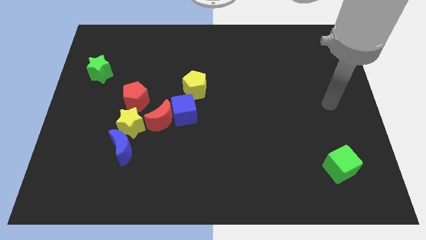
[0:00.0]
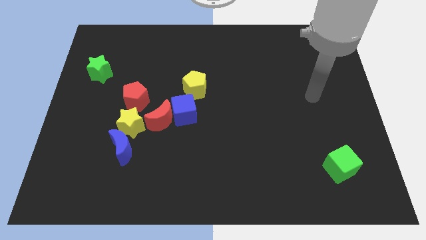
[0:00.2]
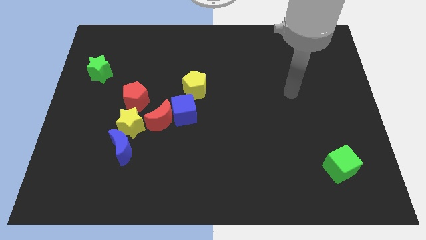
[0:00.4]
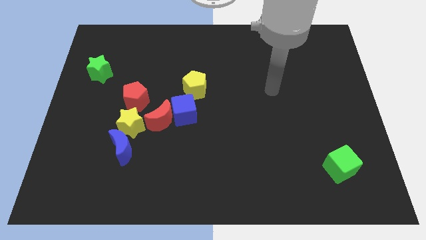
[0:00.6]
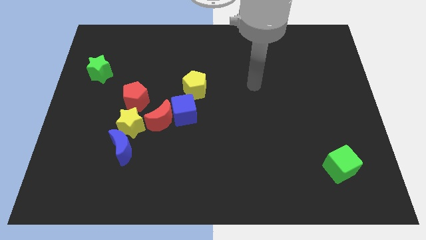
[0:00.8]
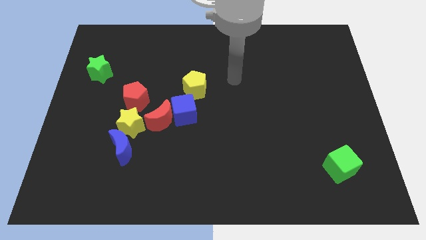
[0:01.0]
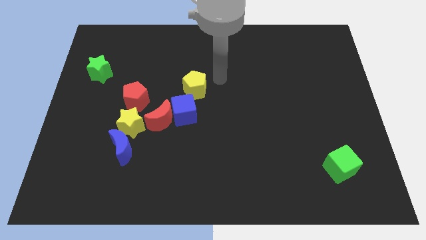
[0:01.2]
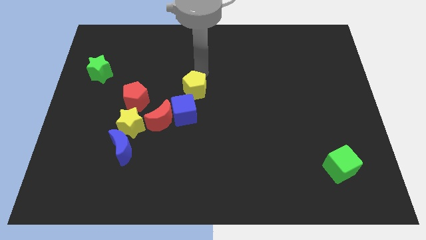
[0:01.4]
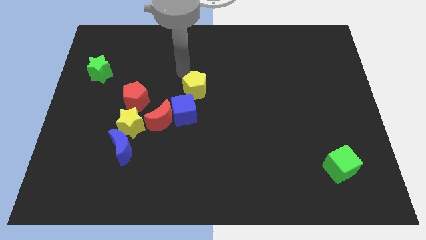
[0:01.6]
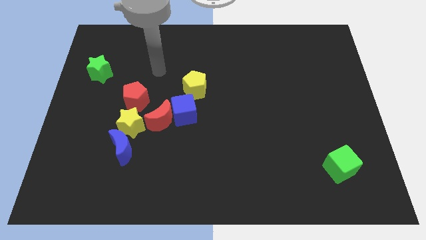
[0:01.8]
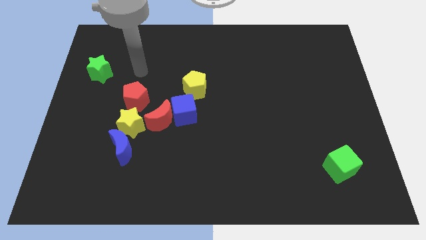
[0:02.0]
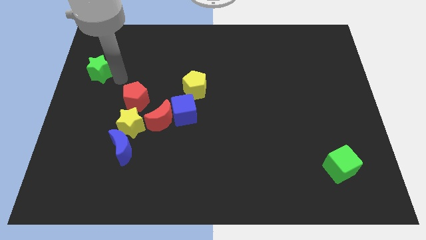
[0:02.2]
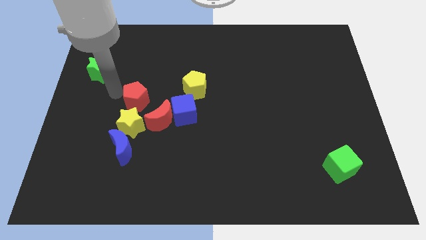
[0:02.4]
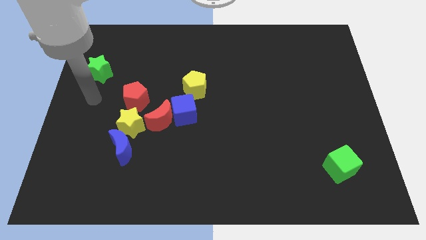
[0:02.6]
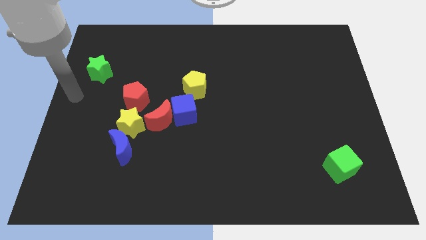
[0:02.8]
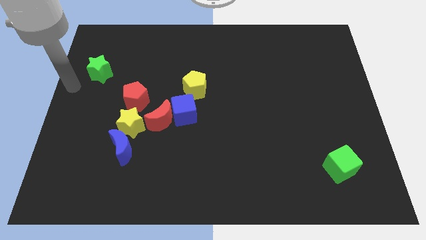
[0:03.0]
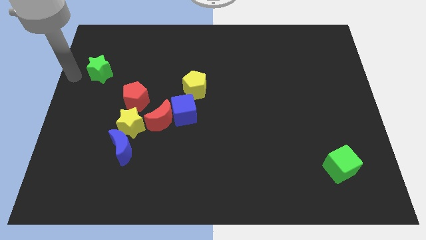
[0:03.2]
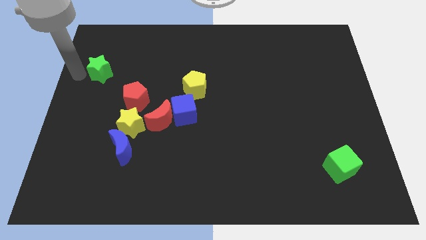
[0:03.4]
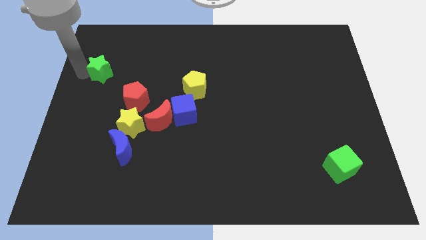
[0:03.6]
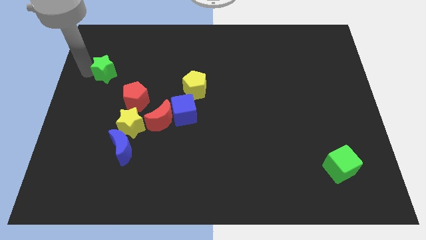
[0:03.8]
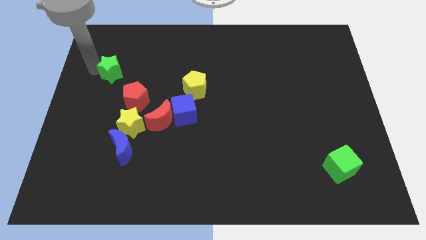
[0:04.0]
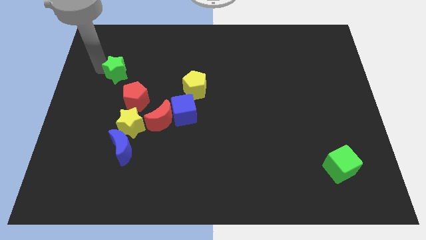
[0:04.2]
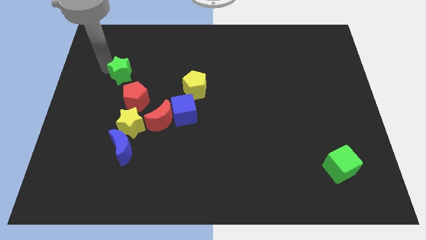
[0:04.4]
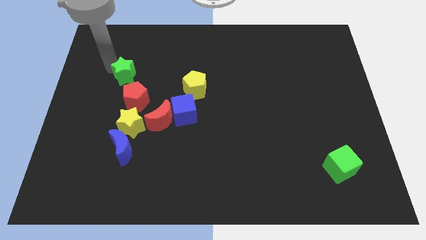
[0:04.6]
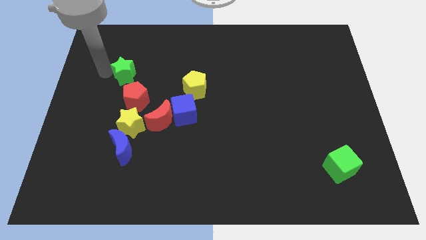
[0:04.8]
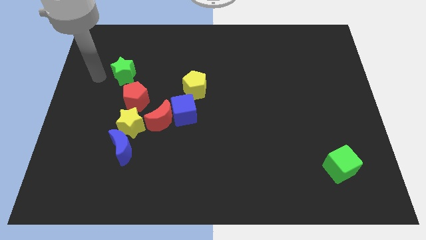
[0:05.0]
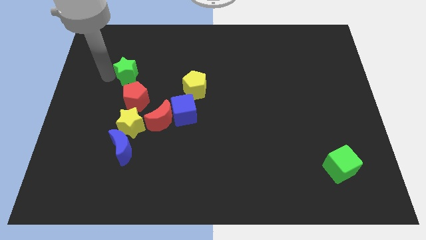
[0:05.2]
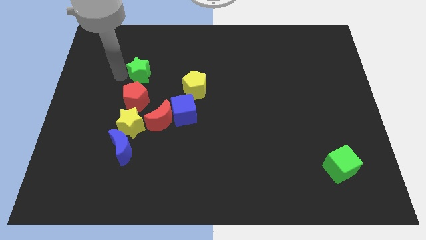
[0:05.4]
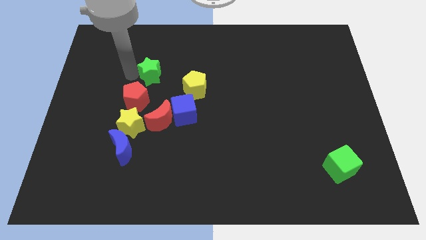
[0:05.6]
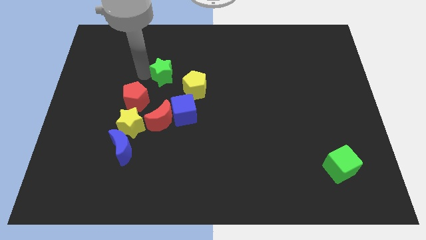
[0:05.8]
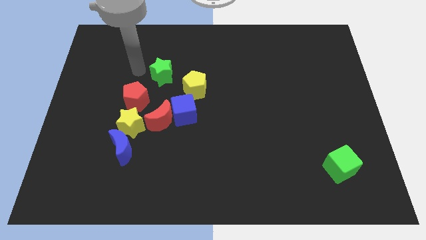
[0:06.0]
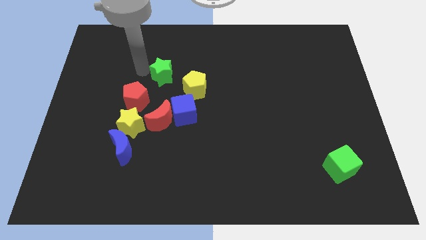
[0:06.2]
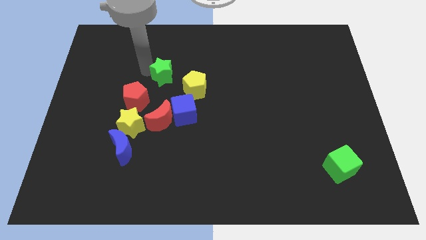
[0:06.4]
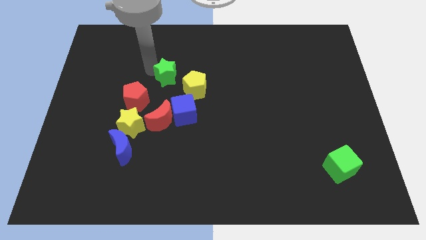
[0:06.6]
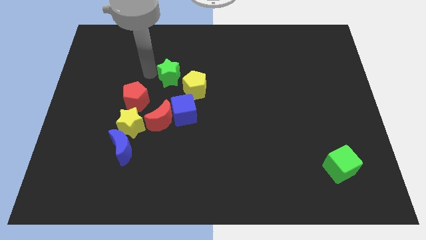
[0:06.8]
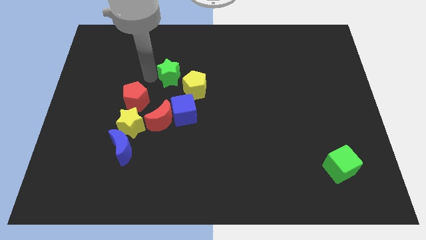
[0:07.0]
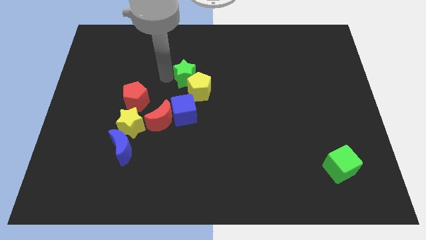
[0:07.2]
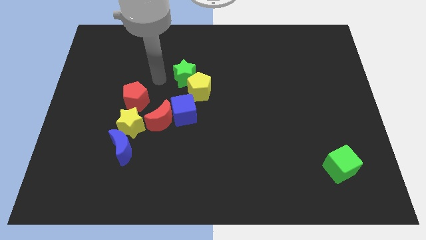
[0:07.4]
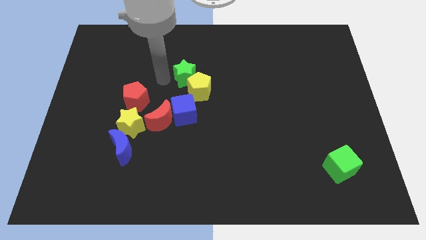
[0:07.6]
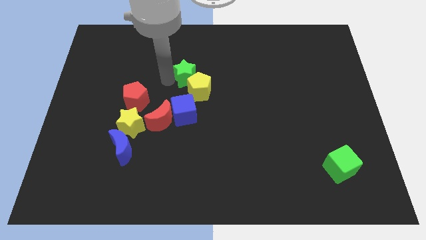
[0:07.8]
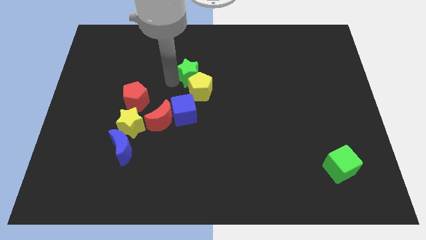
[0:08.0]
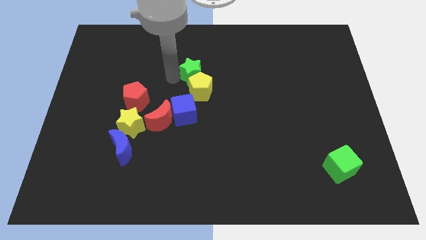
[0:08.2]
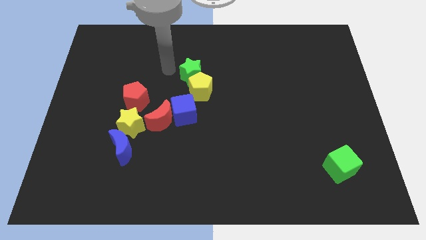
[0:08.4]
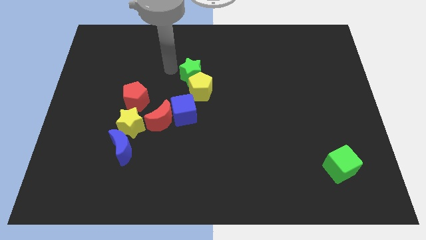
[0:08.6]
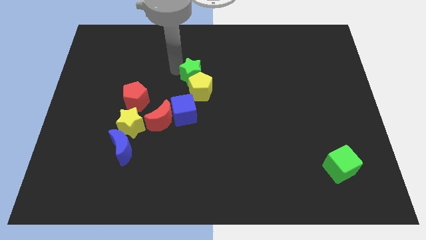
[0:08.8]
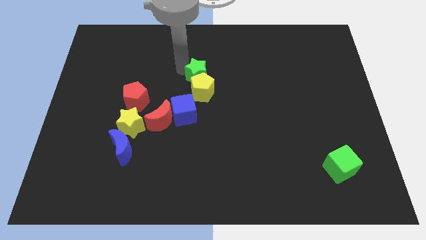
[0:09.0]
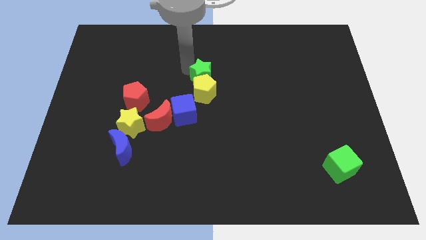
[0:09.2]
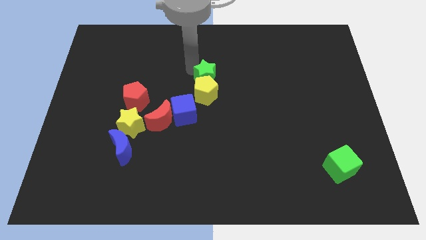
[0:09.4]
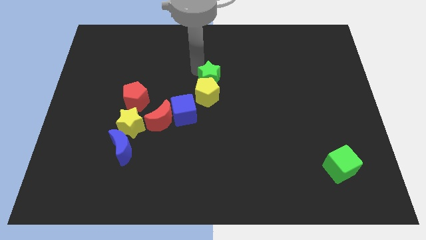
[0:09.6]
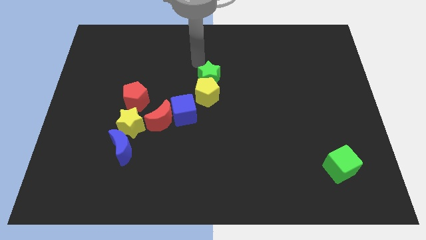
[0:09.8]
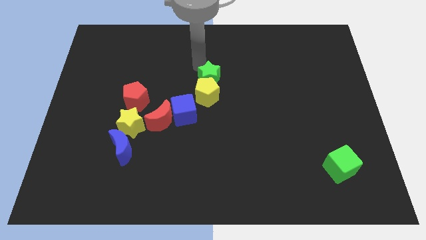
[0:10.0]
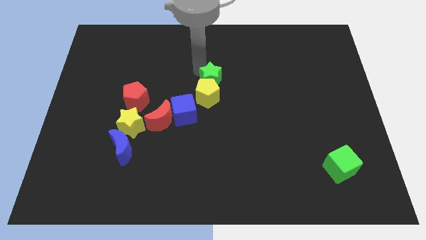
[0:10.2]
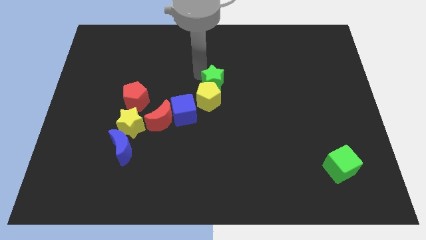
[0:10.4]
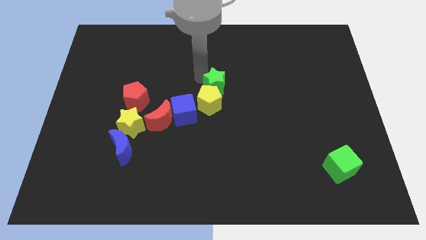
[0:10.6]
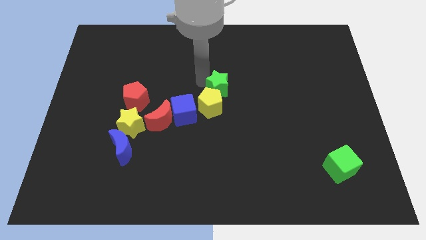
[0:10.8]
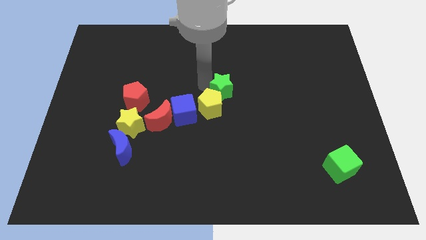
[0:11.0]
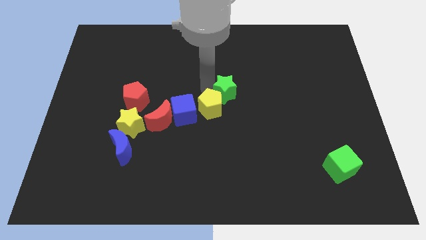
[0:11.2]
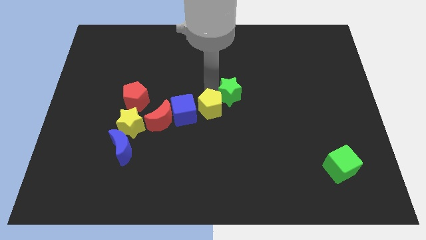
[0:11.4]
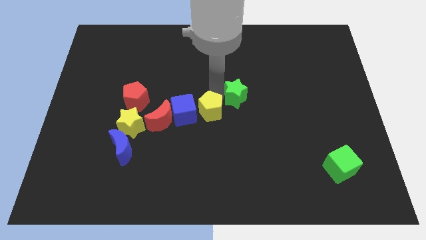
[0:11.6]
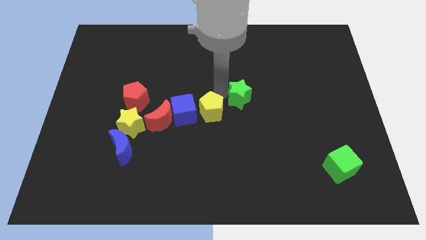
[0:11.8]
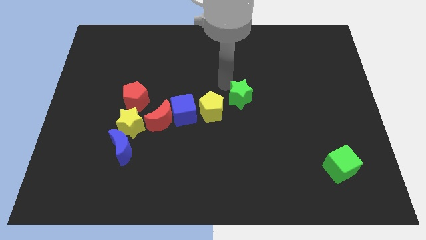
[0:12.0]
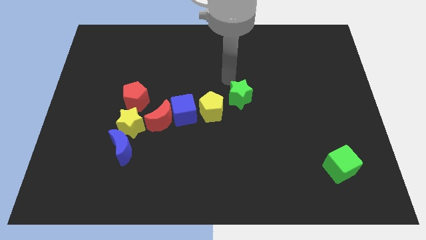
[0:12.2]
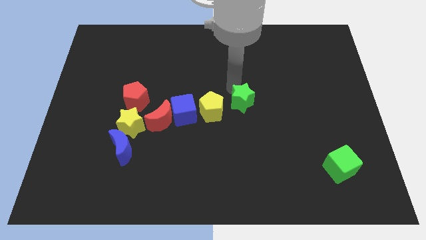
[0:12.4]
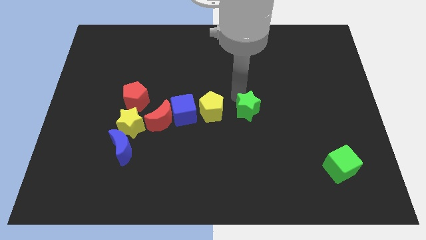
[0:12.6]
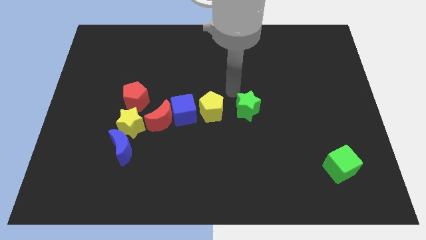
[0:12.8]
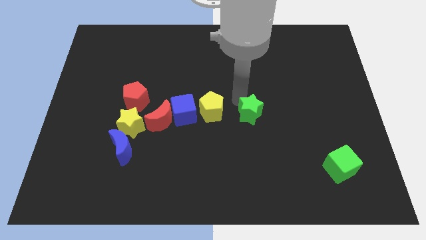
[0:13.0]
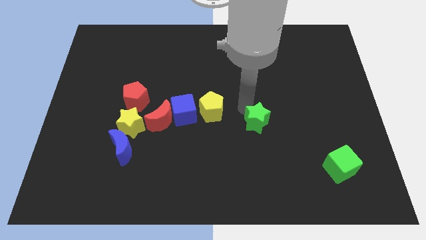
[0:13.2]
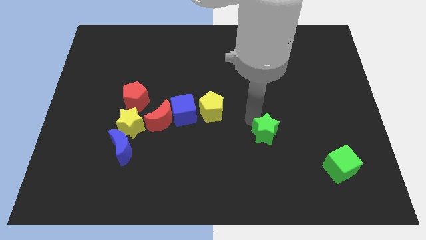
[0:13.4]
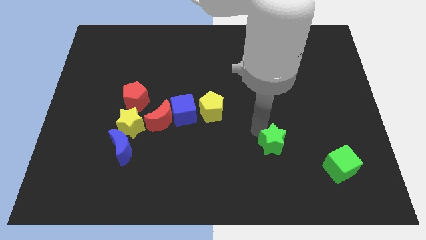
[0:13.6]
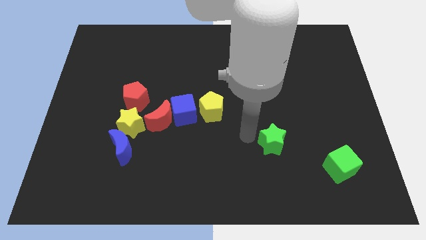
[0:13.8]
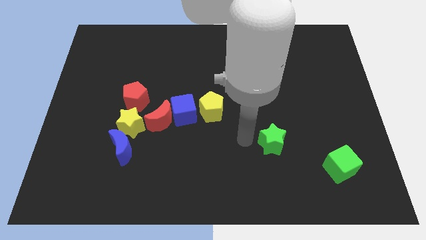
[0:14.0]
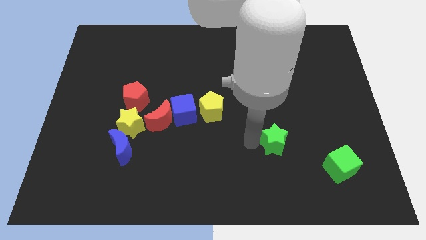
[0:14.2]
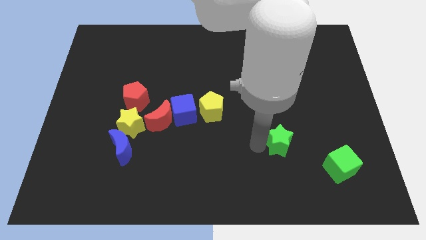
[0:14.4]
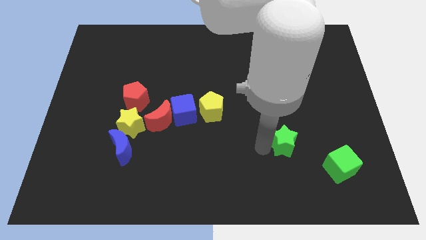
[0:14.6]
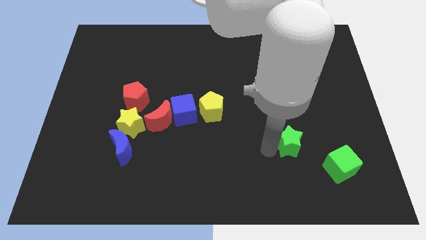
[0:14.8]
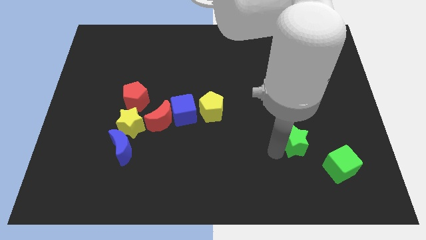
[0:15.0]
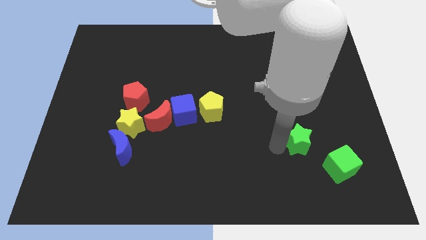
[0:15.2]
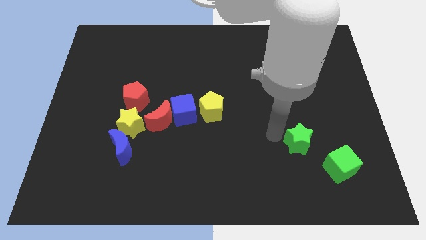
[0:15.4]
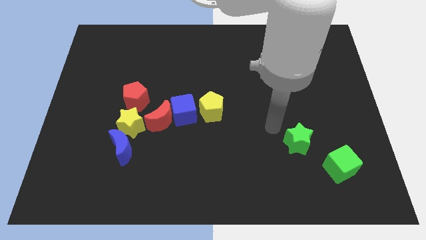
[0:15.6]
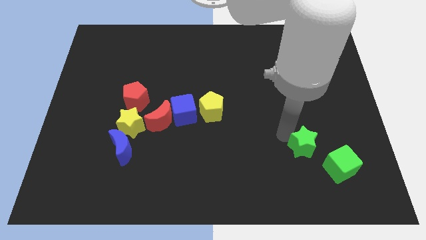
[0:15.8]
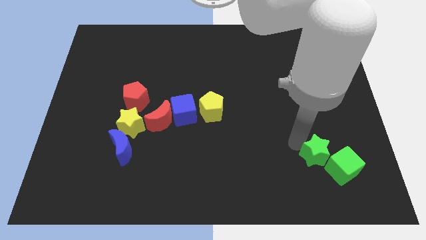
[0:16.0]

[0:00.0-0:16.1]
push the green star next to the green cube
